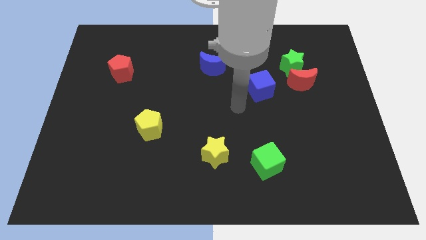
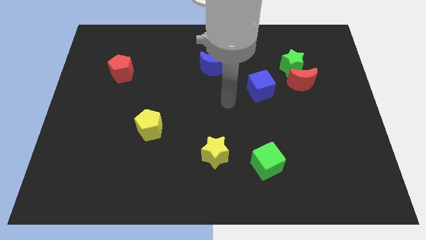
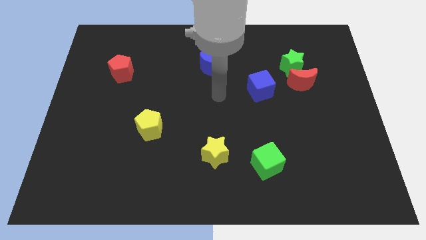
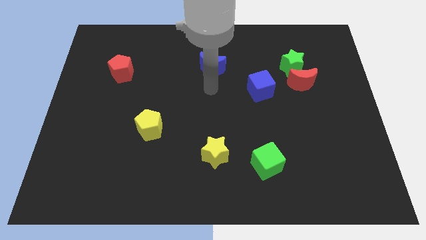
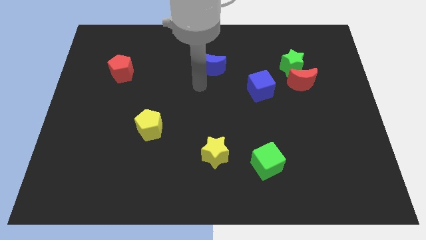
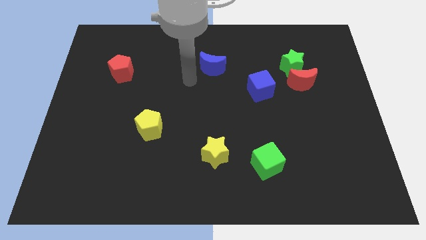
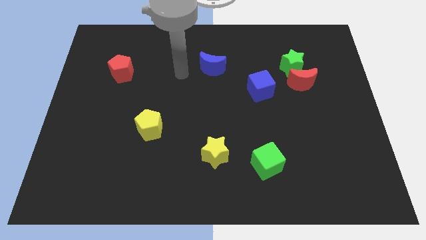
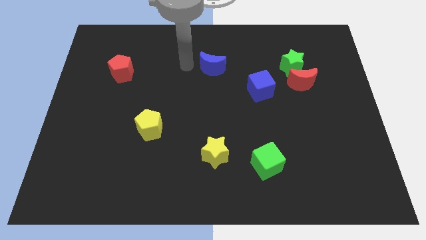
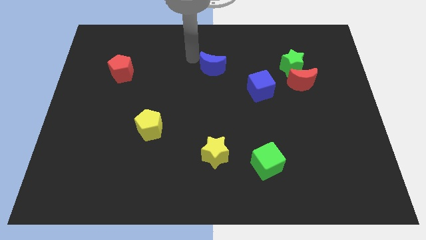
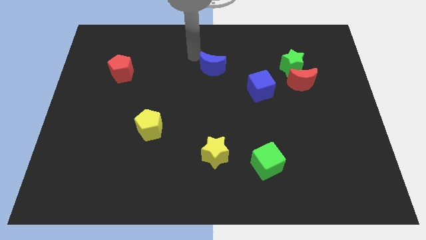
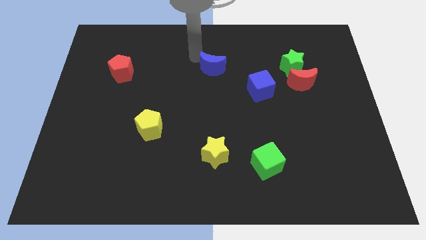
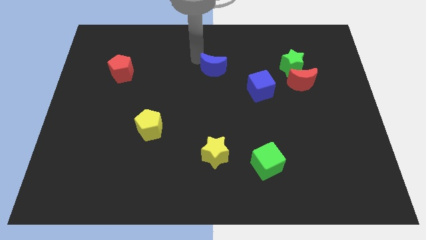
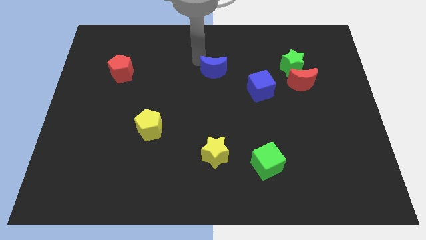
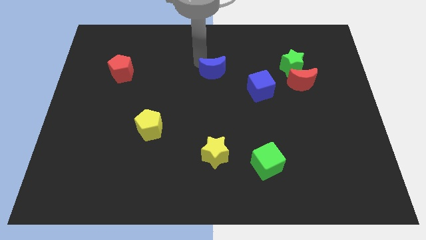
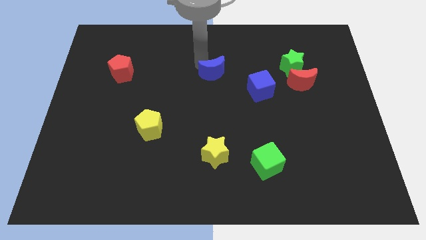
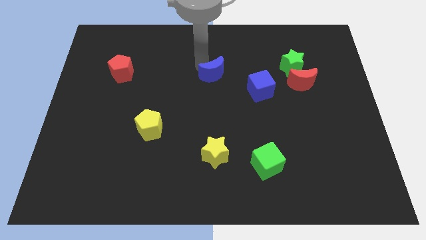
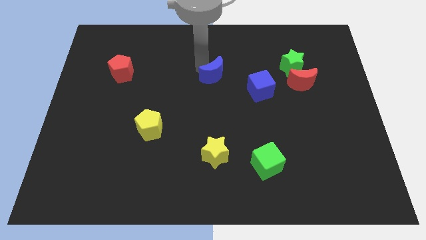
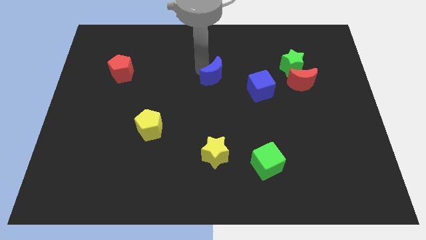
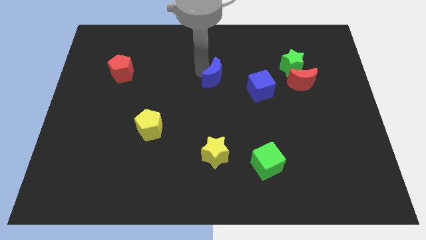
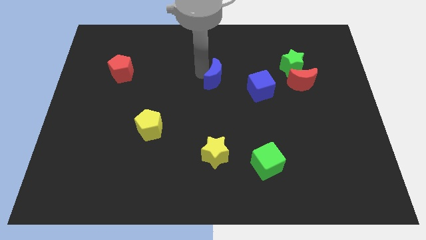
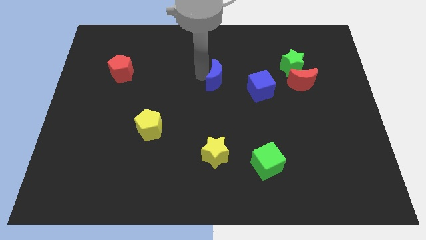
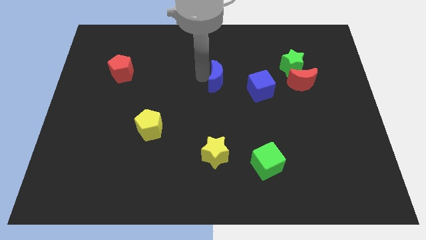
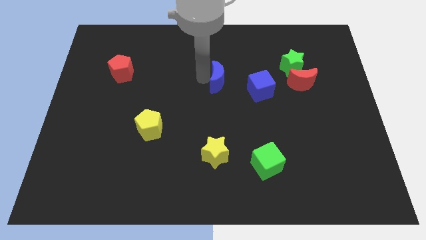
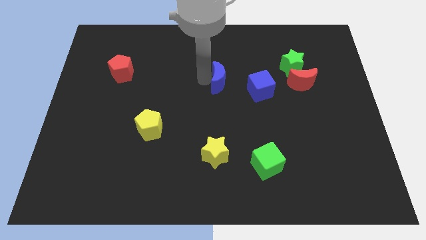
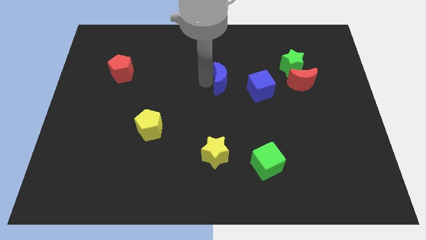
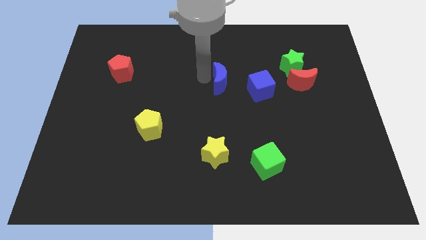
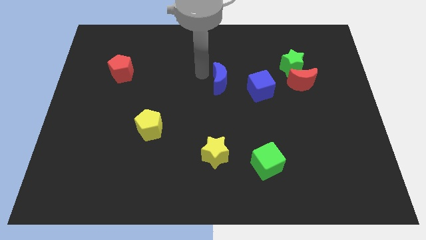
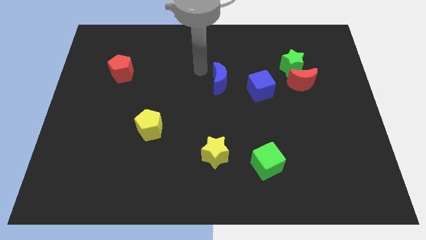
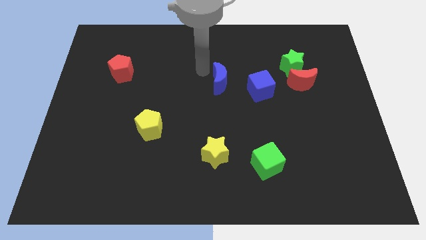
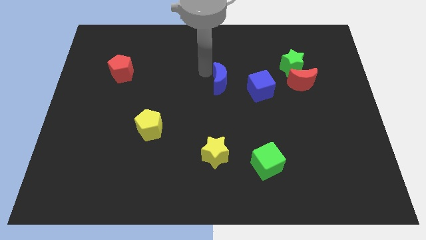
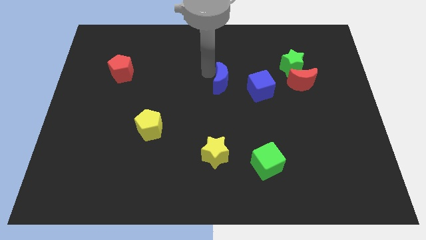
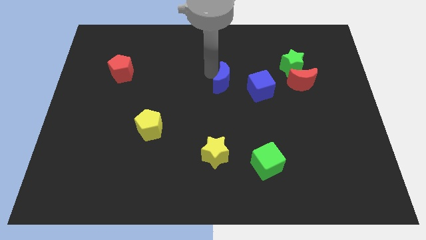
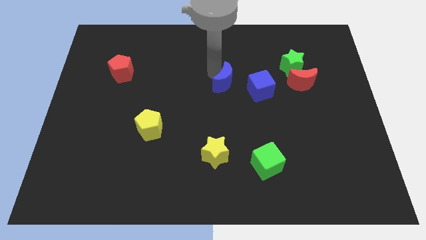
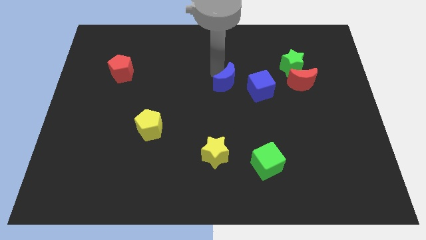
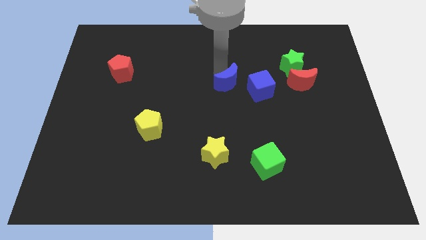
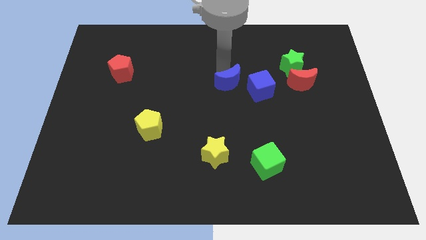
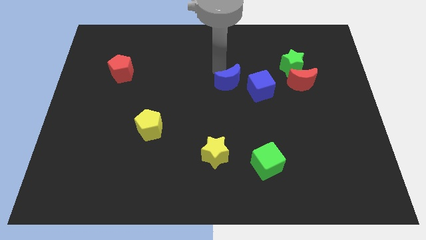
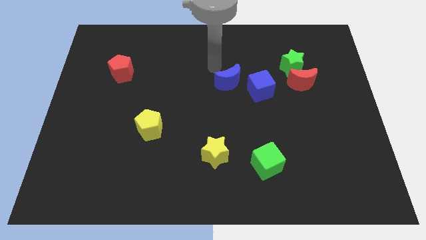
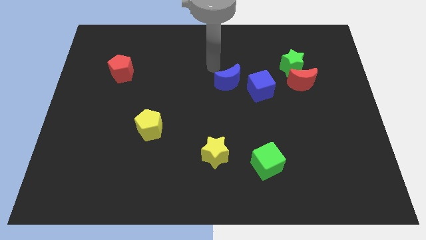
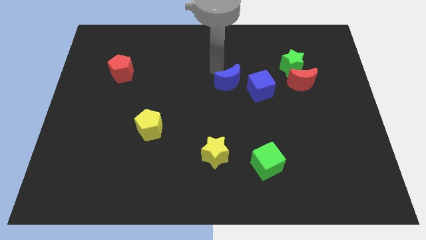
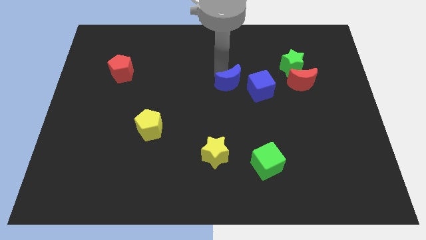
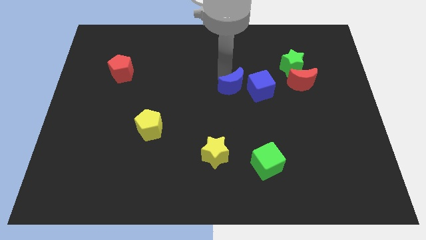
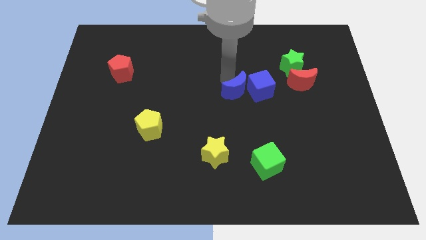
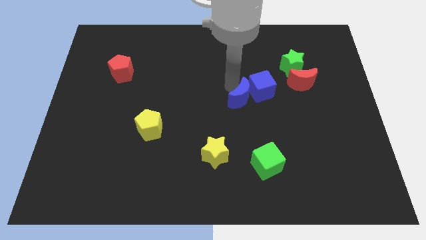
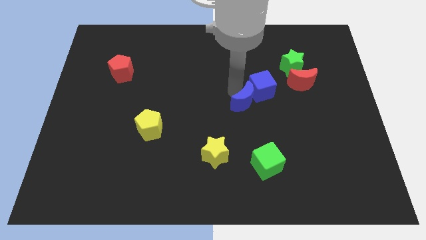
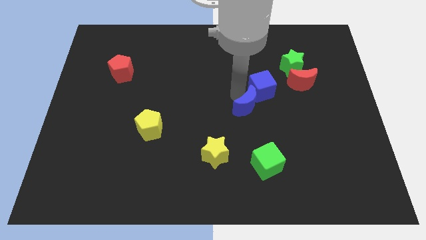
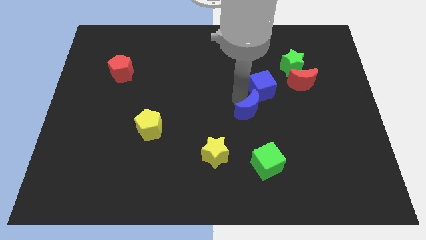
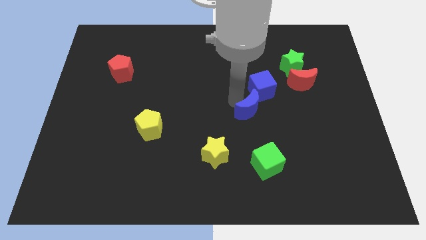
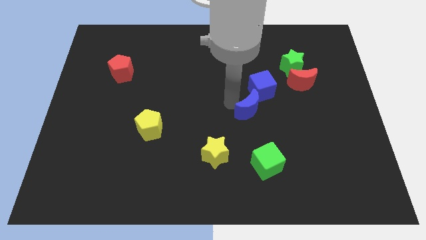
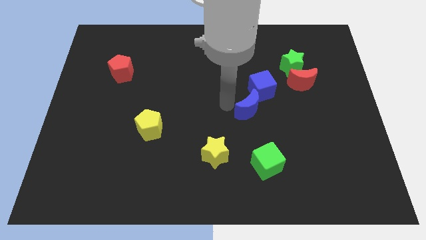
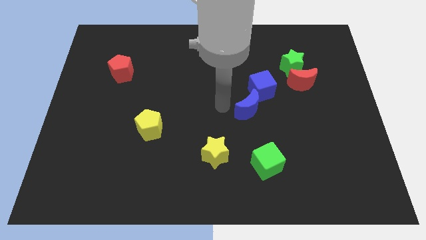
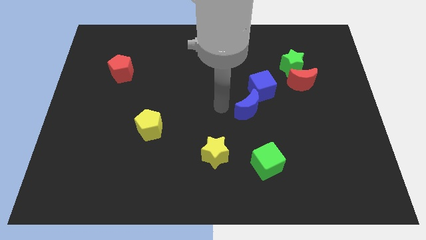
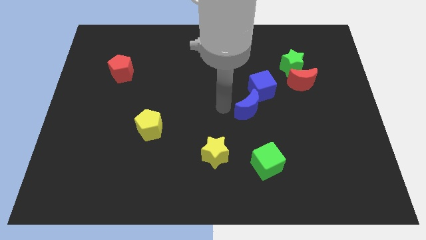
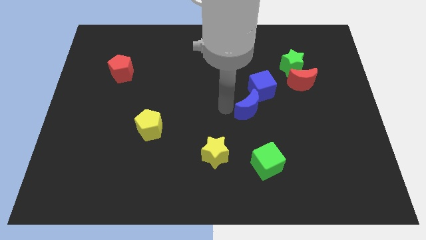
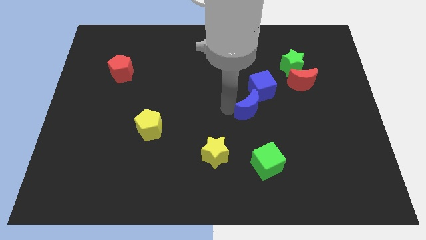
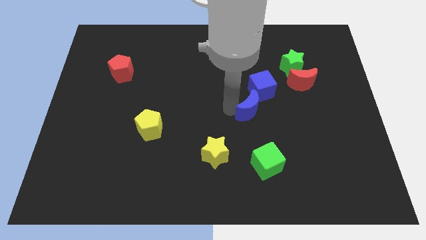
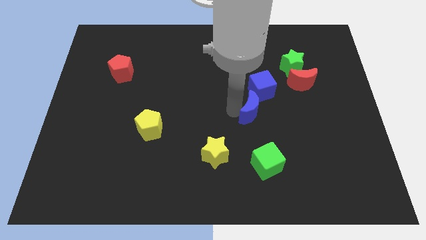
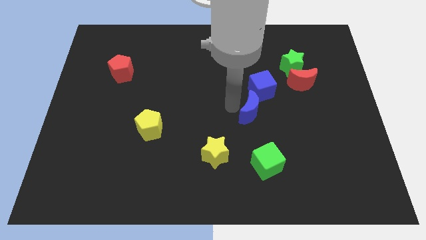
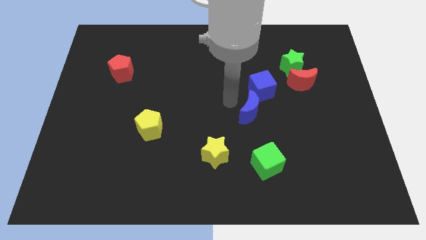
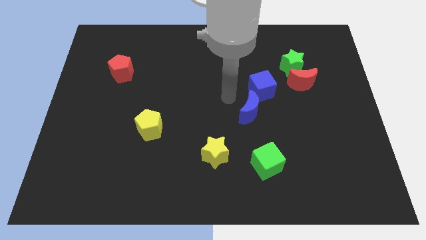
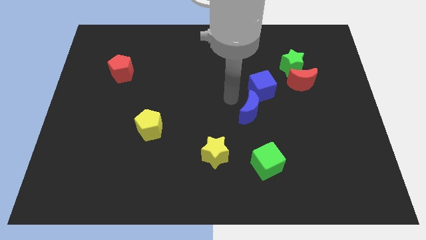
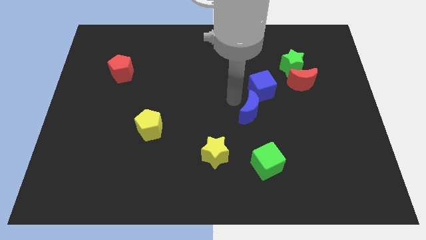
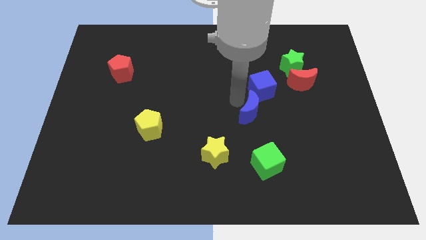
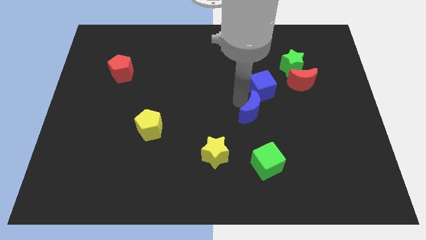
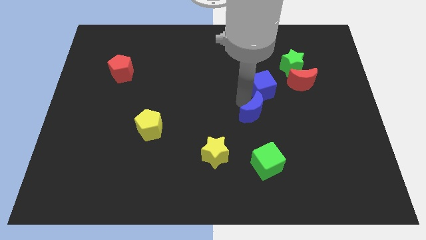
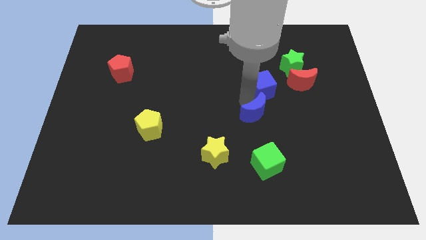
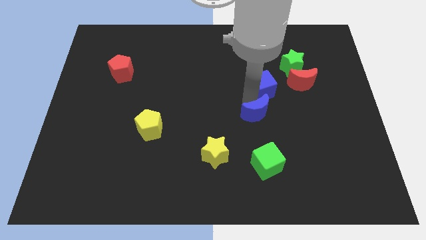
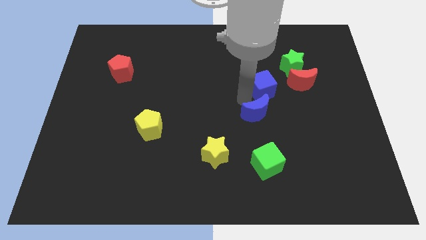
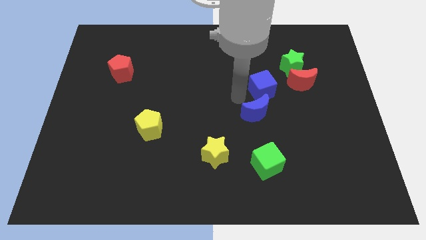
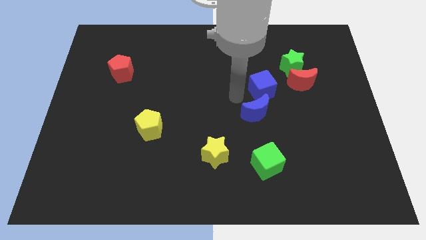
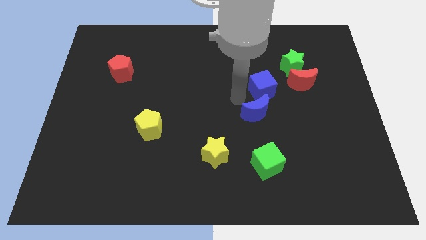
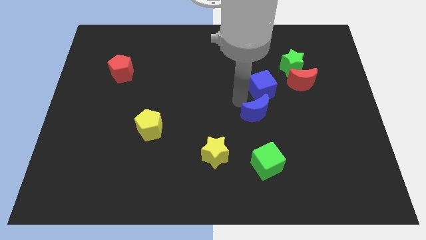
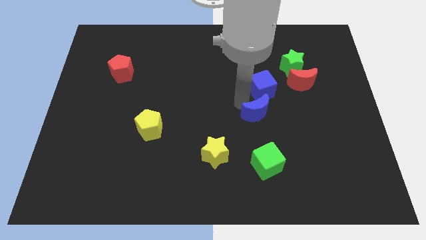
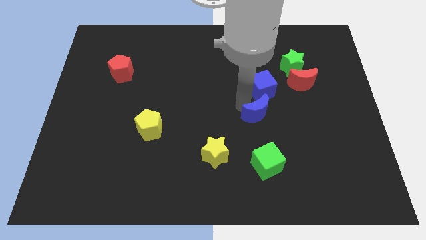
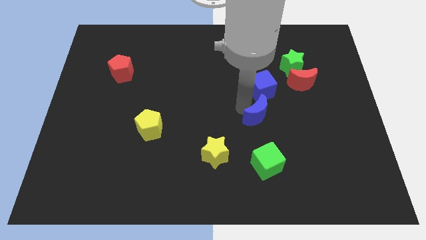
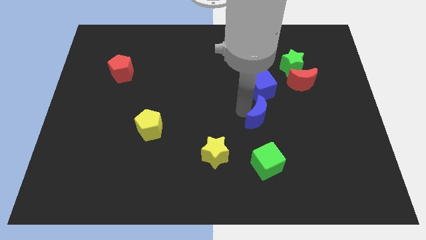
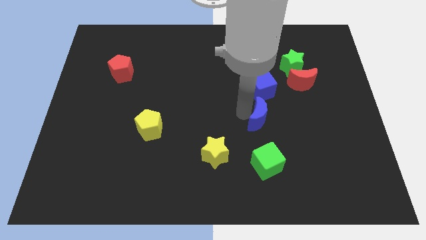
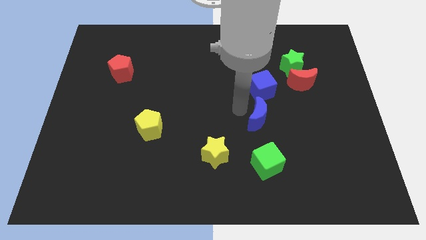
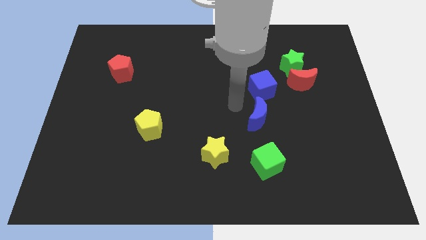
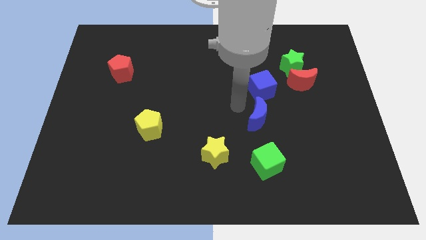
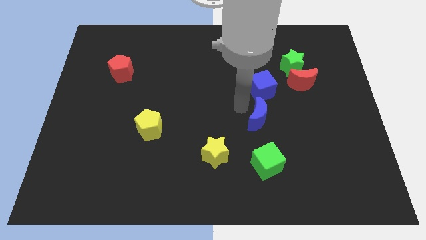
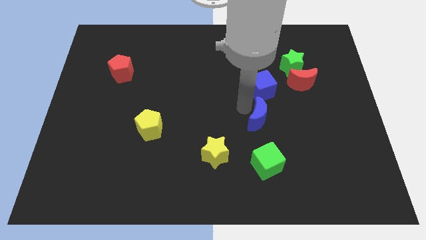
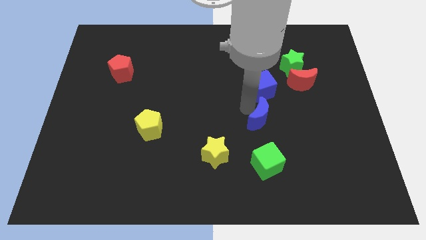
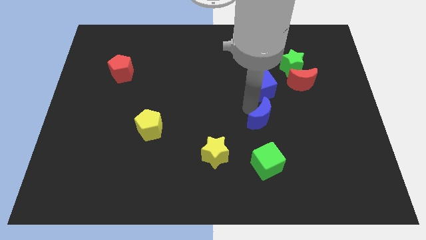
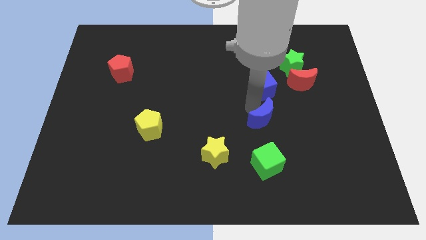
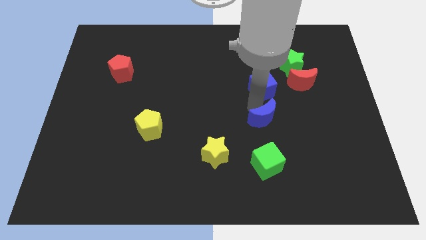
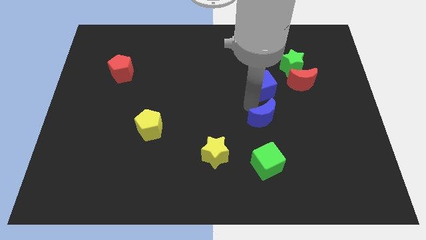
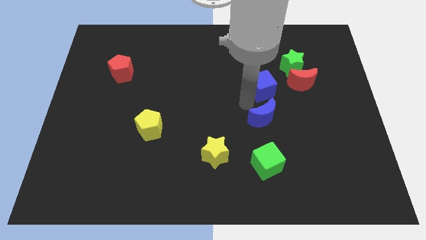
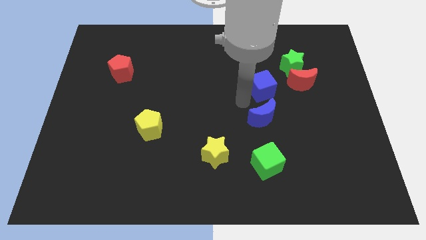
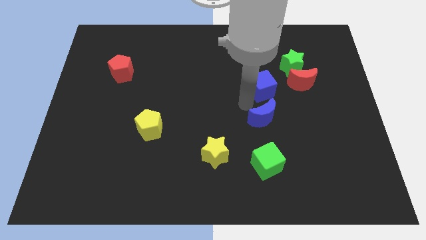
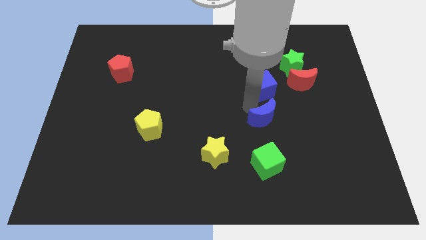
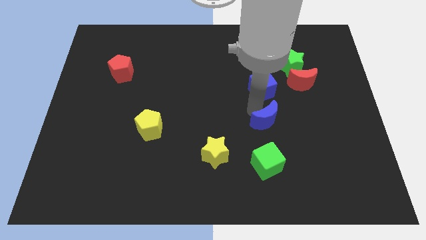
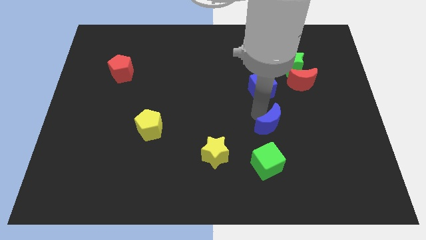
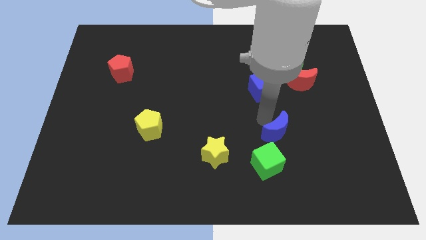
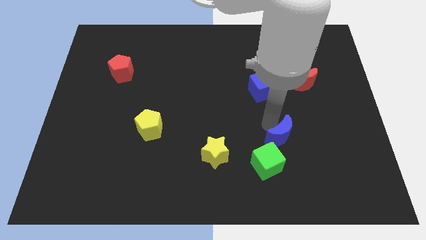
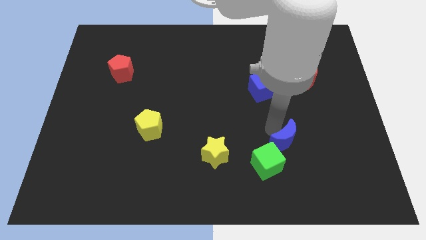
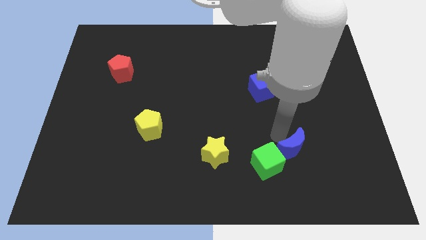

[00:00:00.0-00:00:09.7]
put the blue moon right of the green cube
